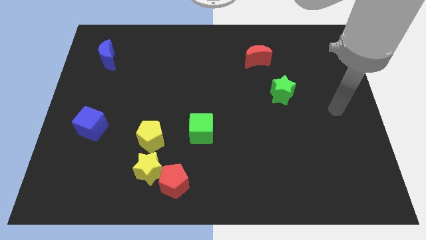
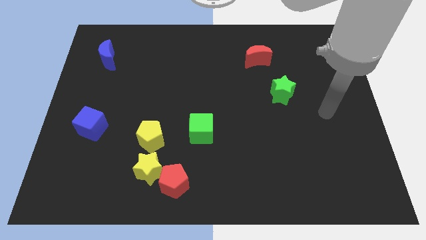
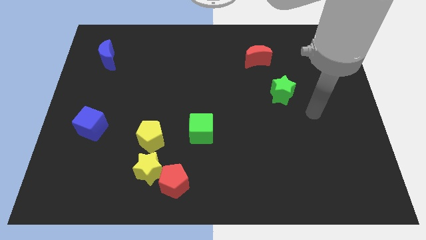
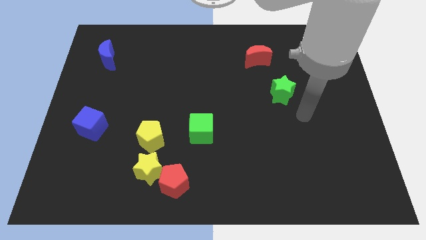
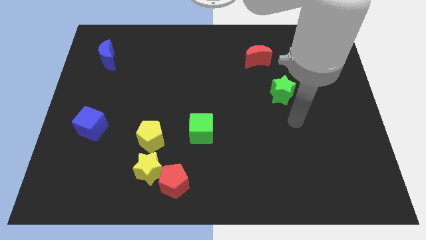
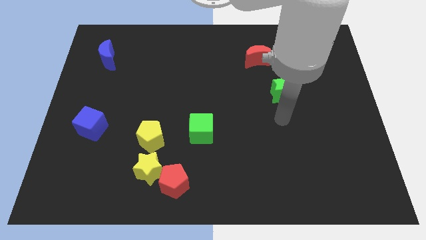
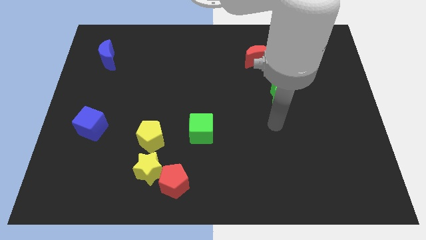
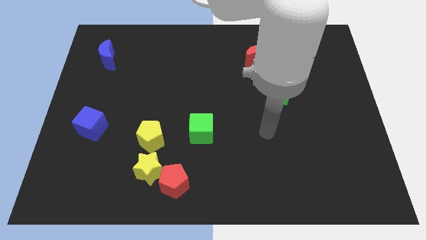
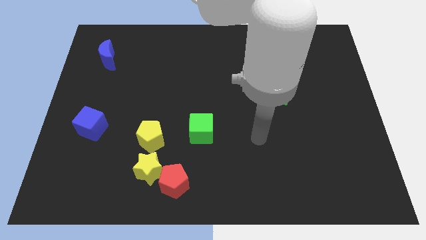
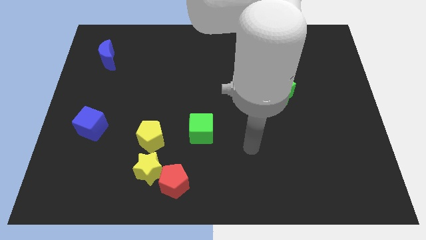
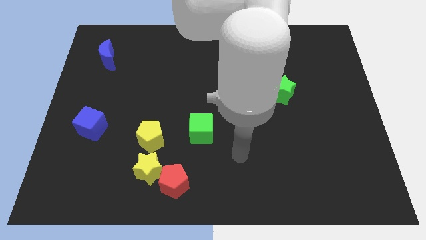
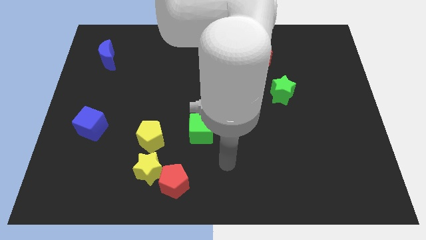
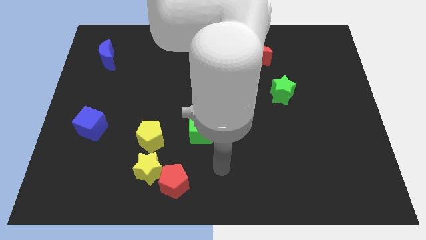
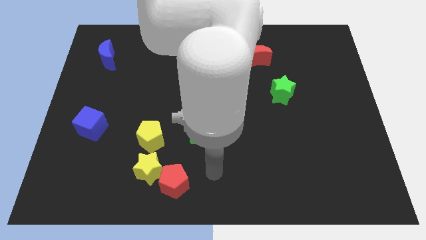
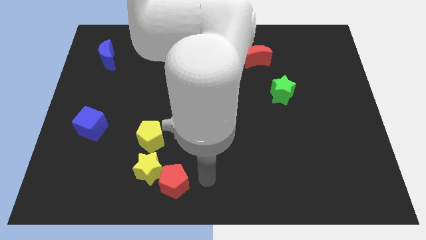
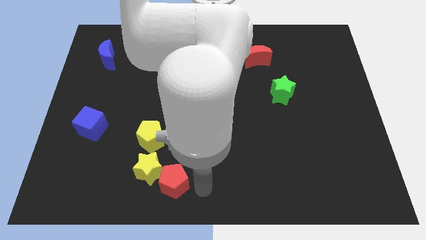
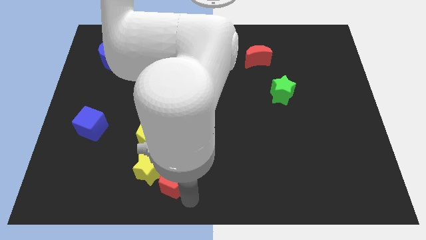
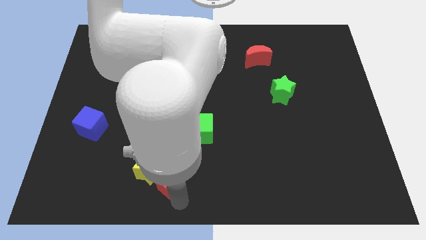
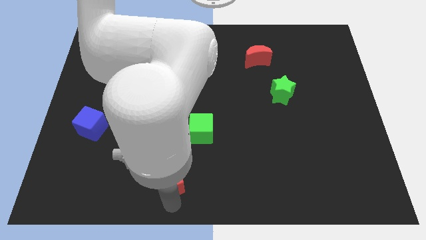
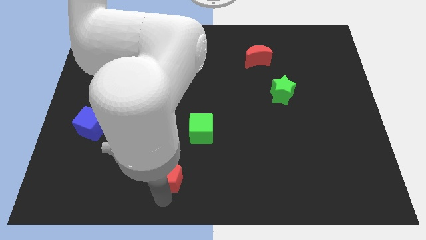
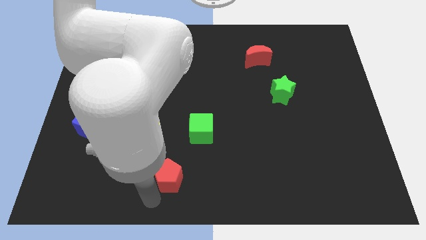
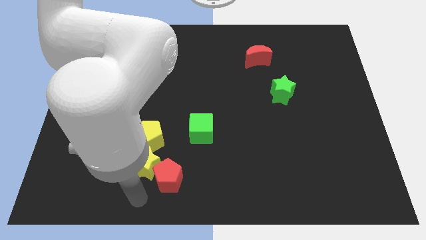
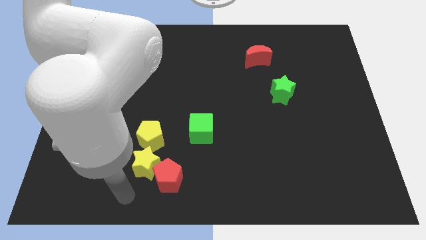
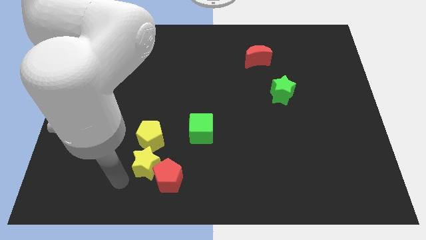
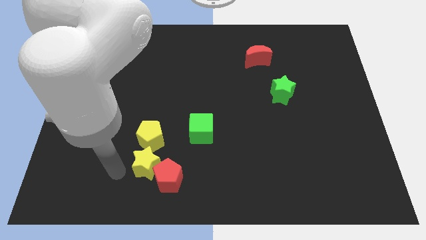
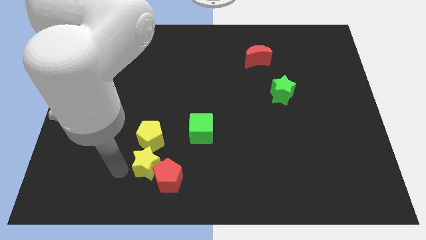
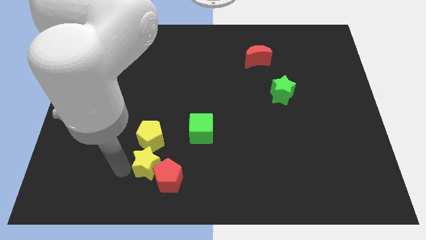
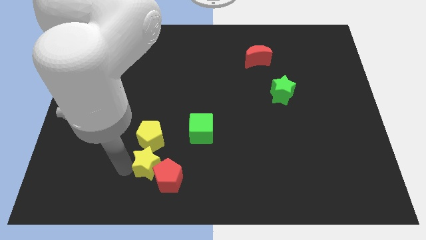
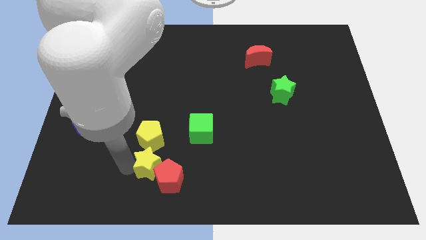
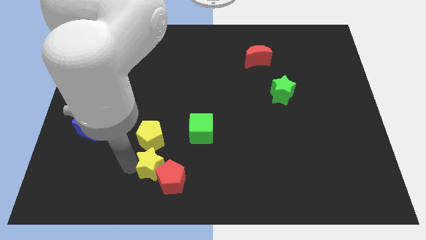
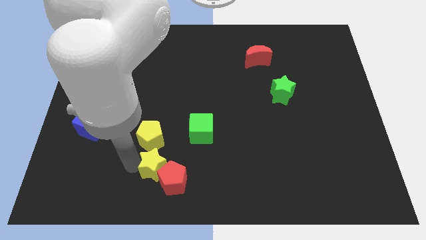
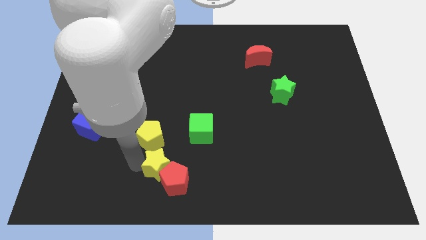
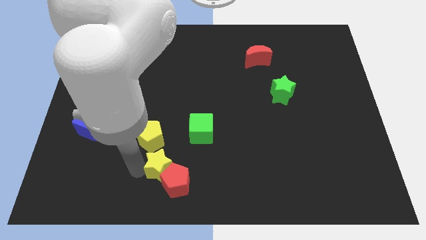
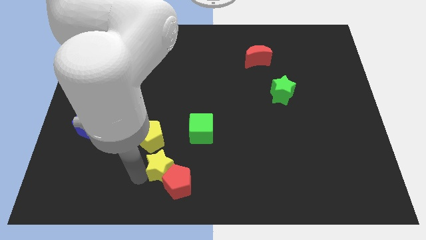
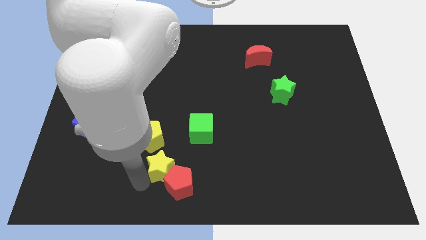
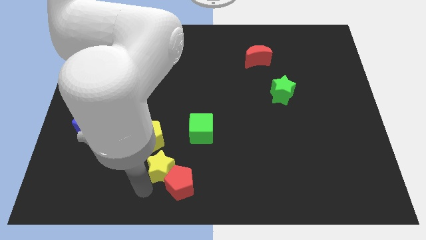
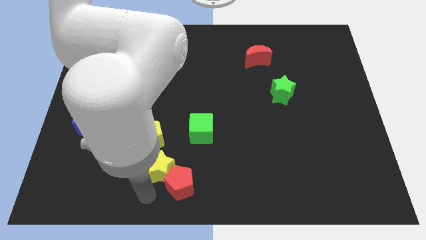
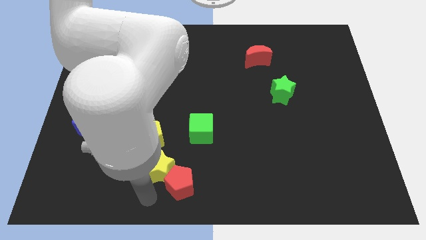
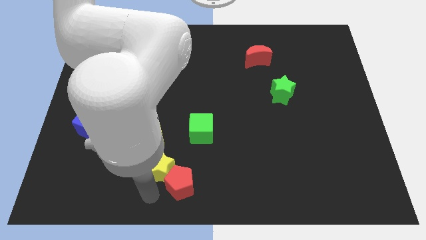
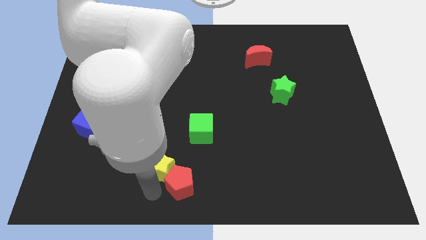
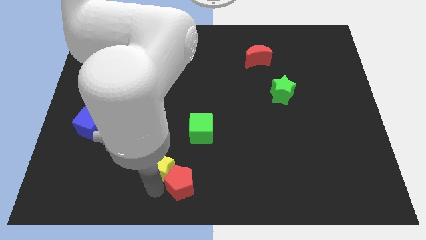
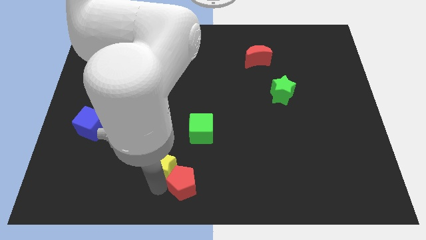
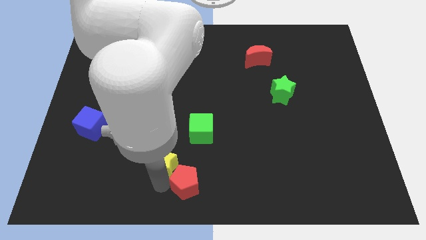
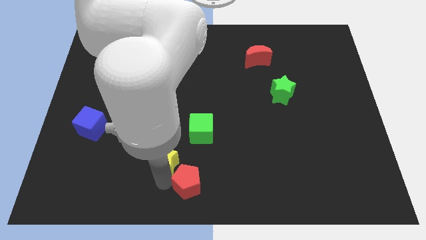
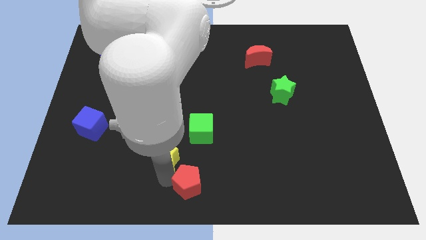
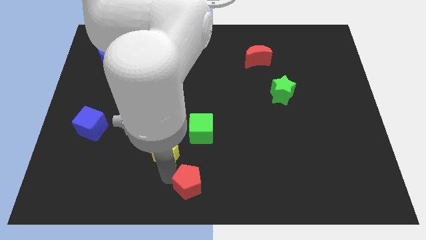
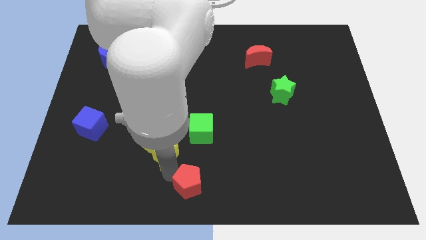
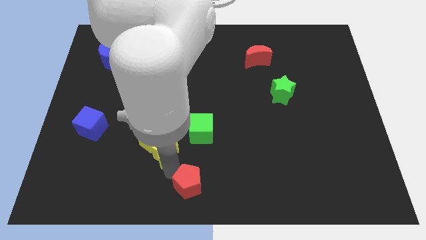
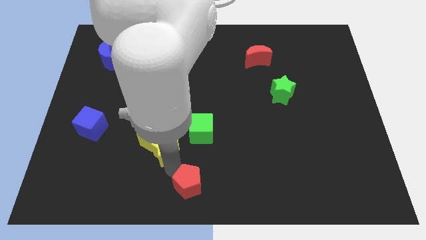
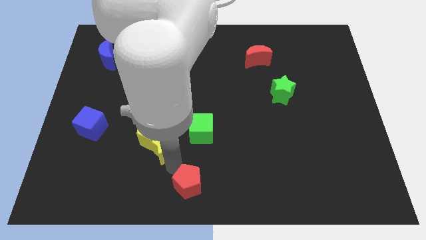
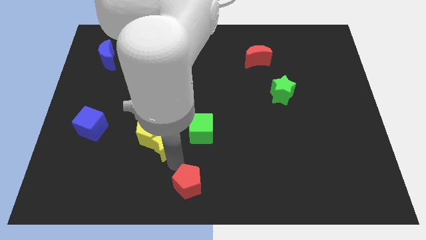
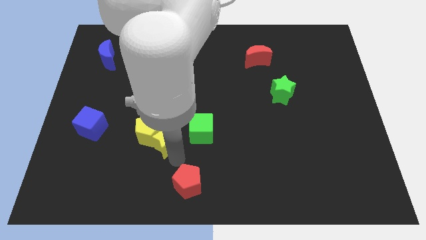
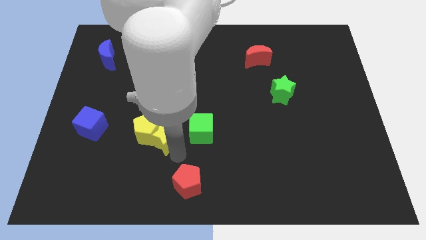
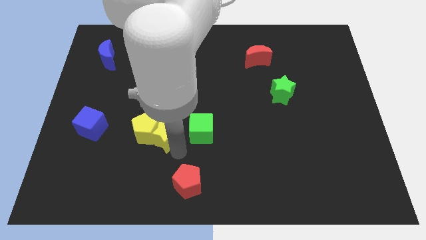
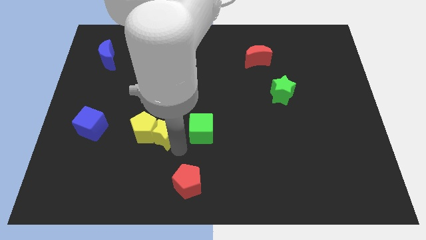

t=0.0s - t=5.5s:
move the yellow star diagonally up and to the right of the yellow pentagon

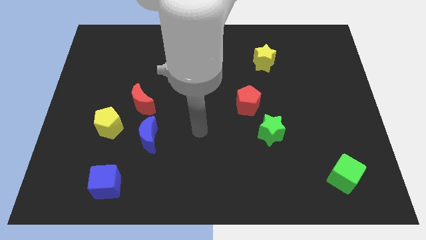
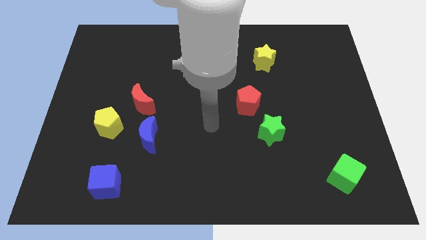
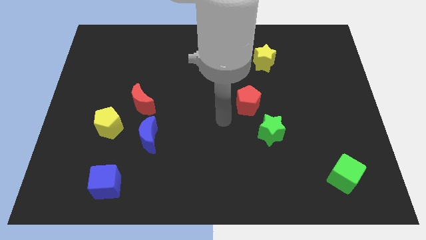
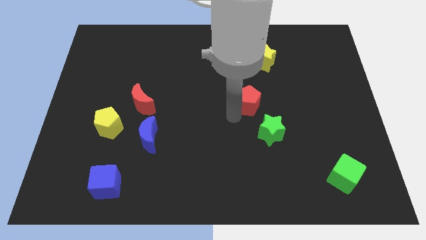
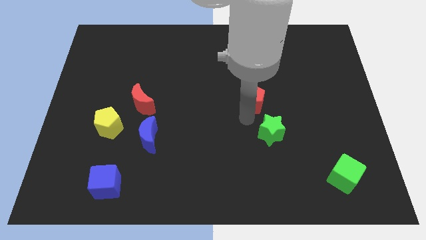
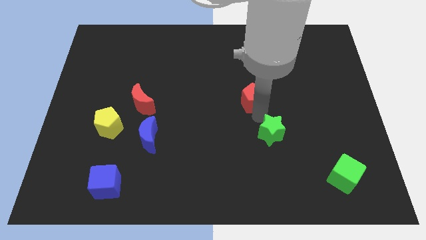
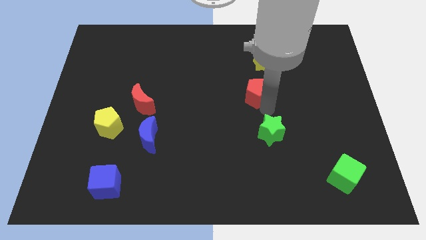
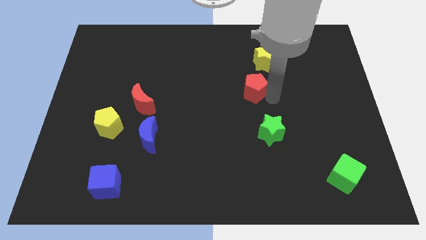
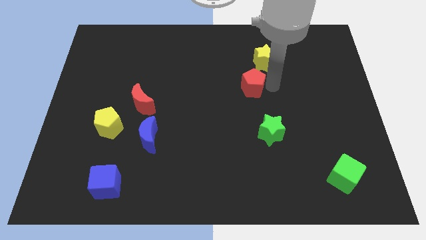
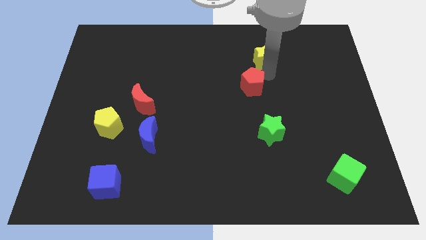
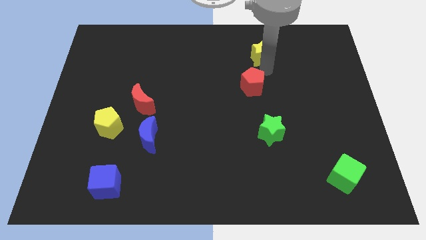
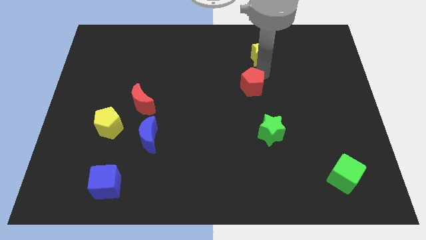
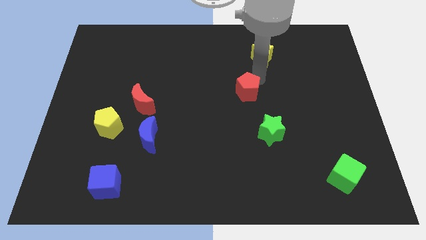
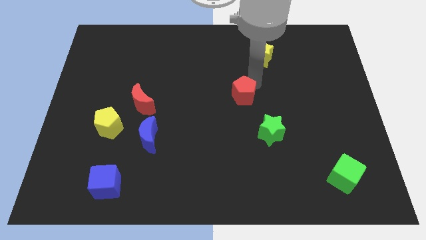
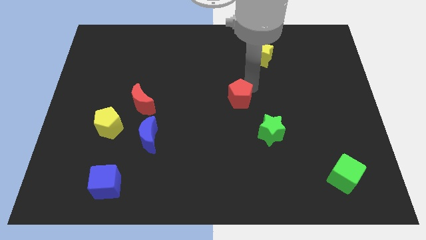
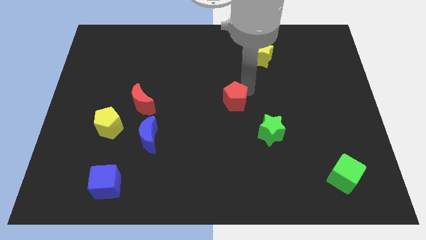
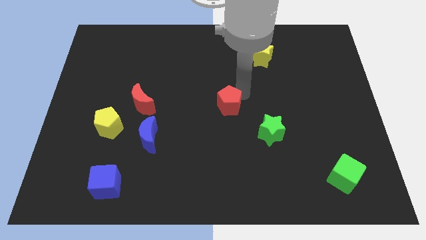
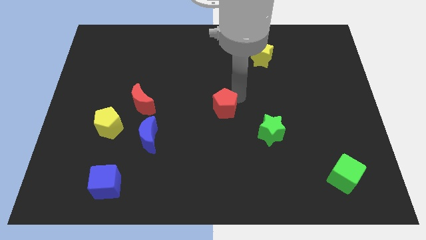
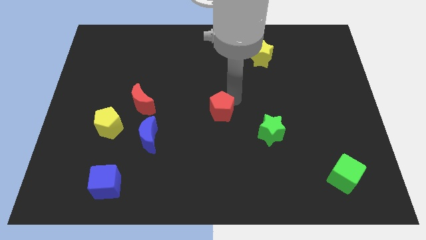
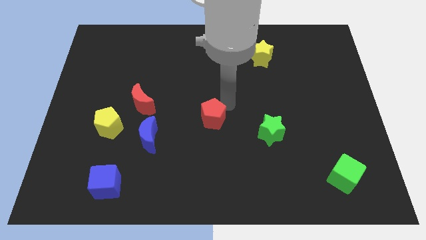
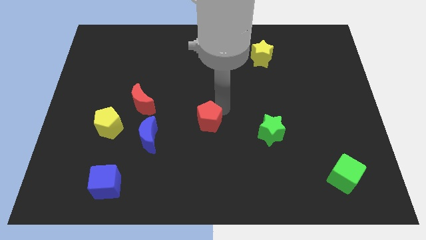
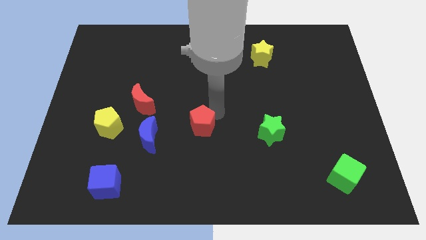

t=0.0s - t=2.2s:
move the red pentagon just right of the blue moon
